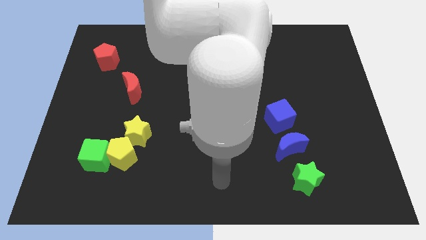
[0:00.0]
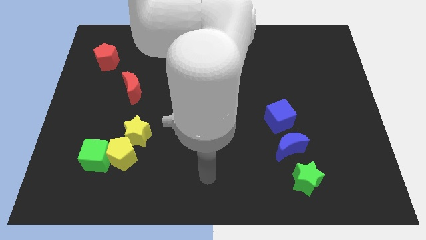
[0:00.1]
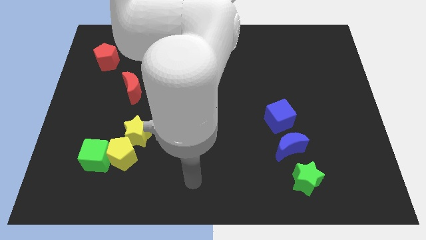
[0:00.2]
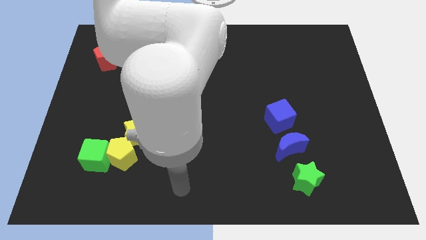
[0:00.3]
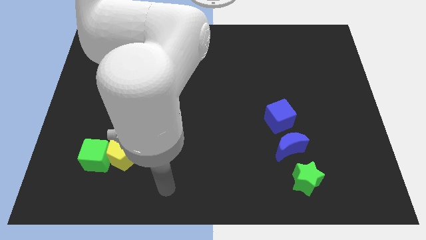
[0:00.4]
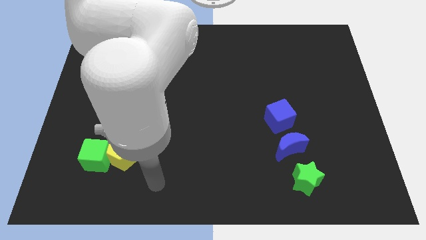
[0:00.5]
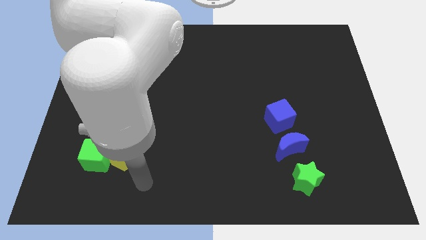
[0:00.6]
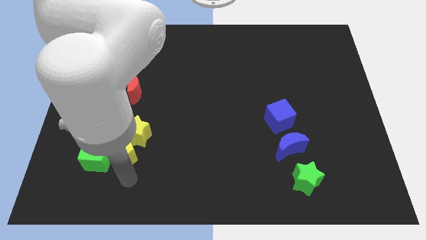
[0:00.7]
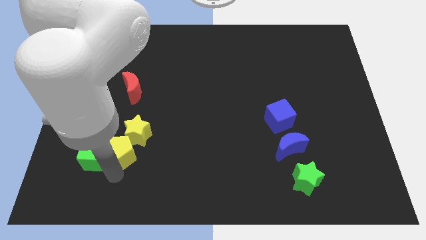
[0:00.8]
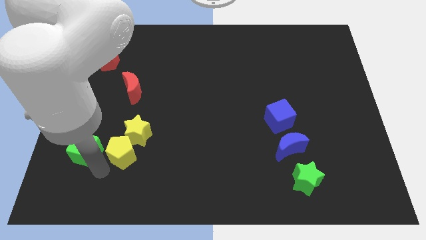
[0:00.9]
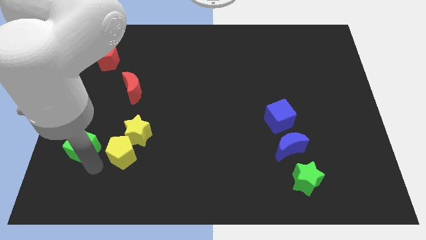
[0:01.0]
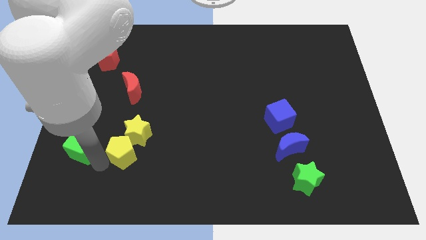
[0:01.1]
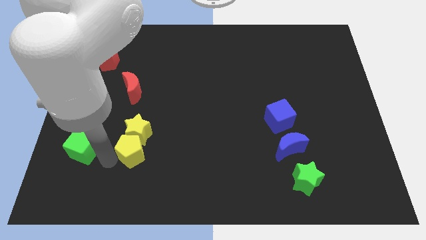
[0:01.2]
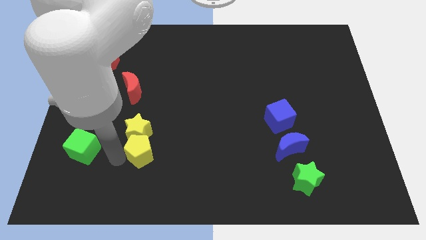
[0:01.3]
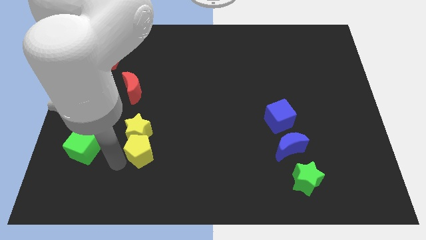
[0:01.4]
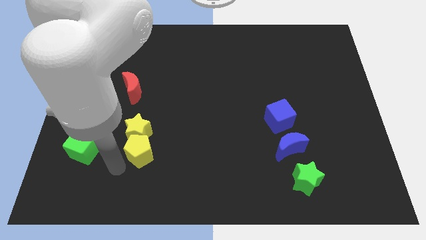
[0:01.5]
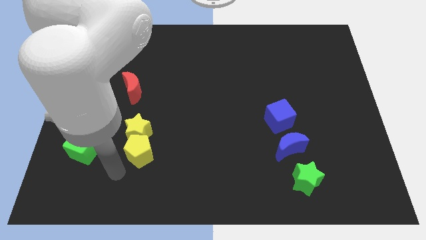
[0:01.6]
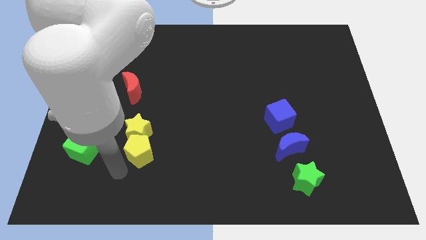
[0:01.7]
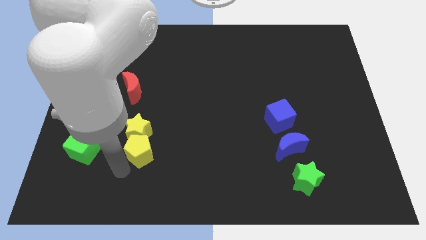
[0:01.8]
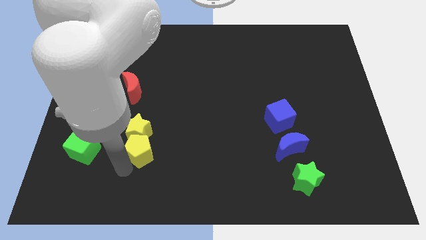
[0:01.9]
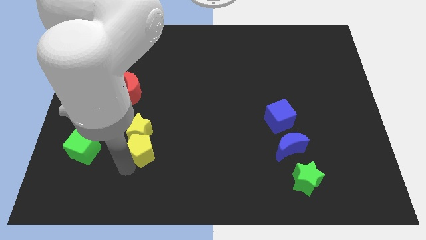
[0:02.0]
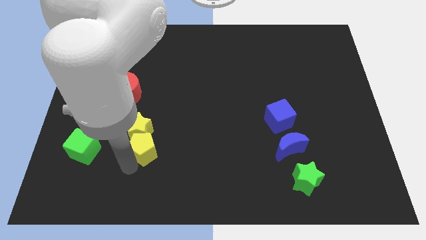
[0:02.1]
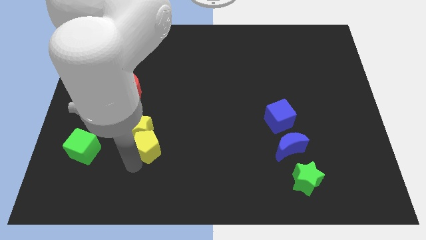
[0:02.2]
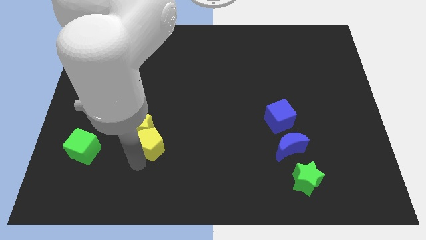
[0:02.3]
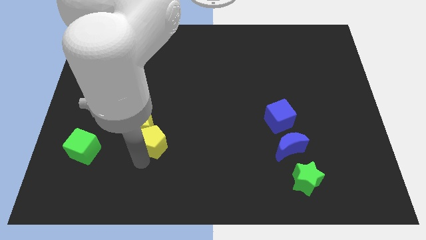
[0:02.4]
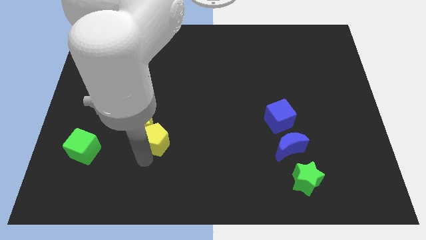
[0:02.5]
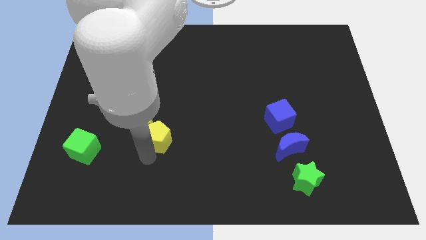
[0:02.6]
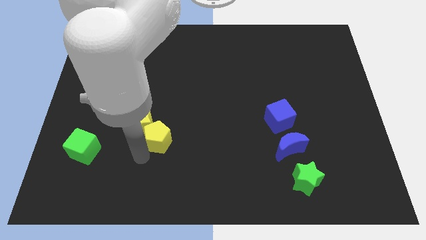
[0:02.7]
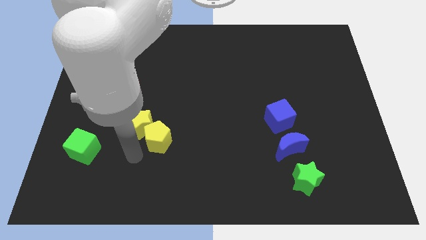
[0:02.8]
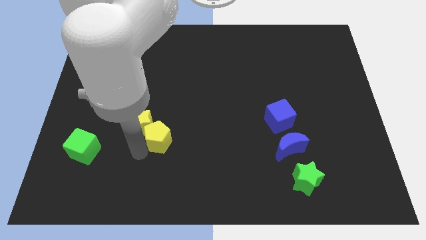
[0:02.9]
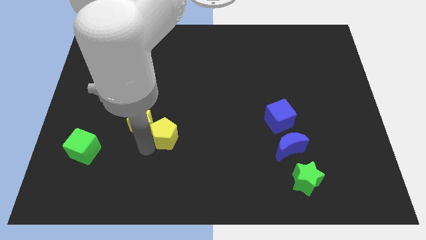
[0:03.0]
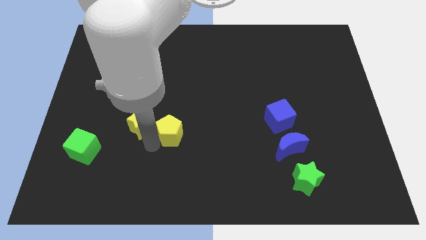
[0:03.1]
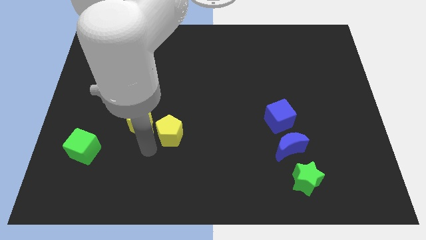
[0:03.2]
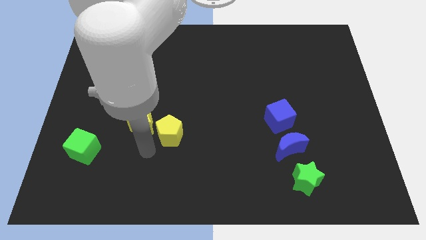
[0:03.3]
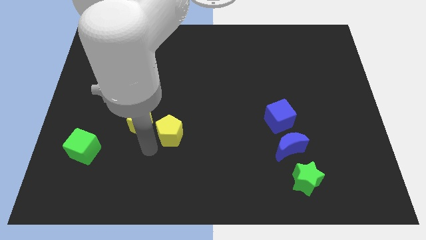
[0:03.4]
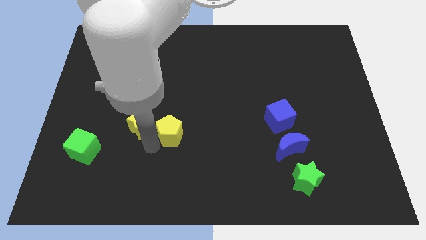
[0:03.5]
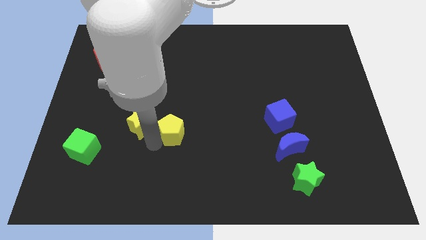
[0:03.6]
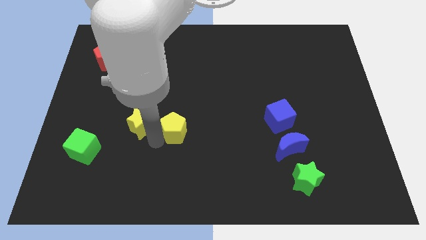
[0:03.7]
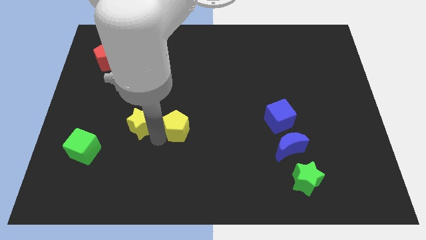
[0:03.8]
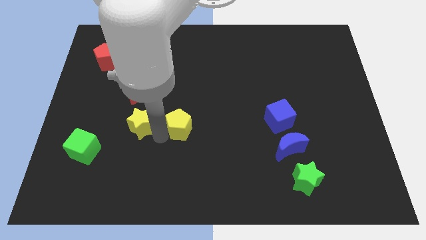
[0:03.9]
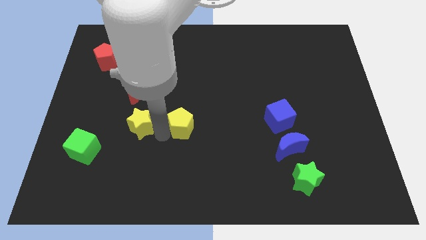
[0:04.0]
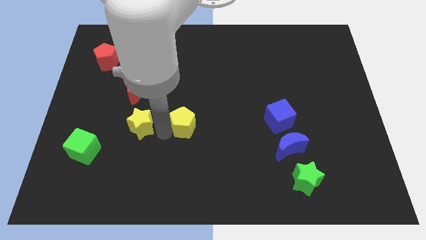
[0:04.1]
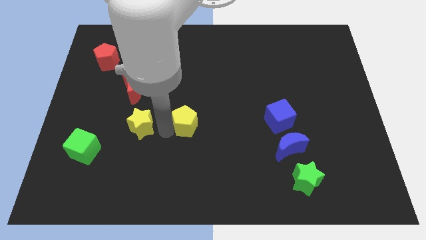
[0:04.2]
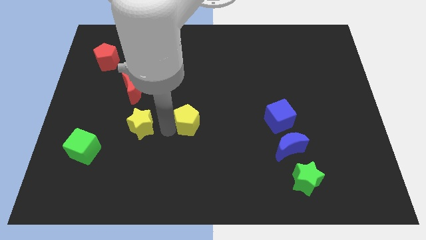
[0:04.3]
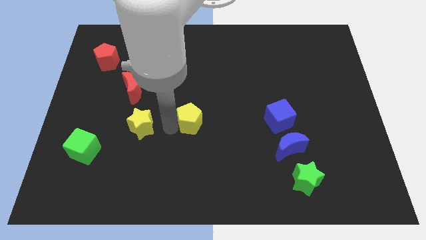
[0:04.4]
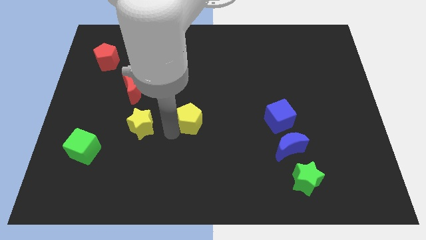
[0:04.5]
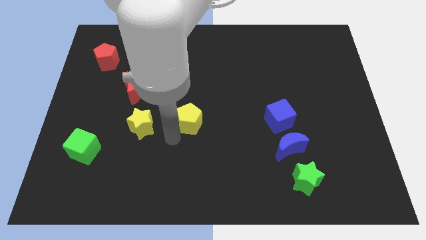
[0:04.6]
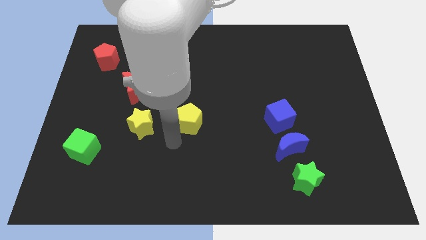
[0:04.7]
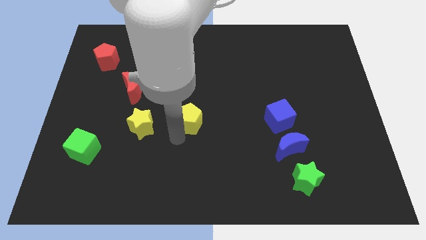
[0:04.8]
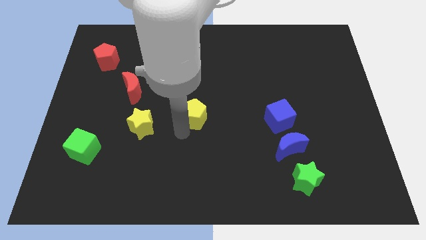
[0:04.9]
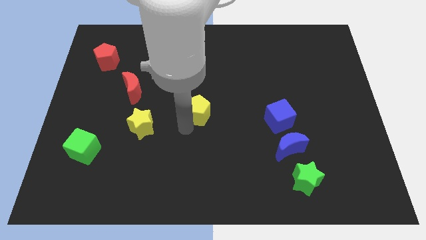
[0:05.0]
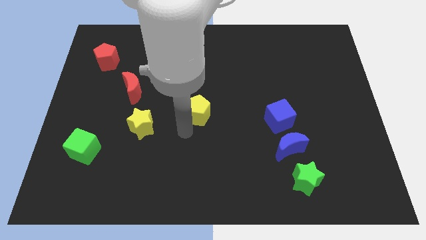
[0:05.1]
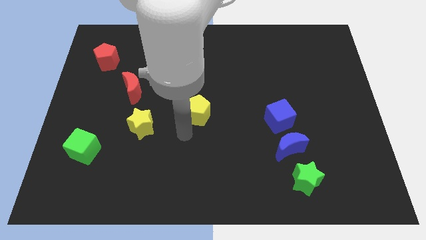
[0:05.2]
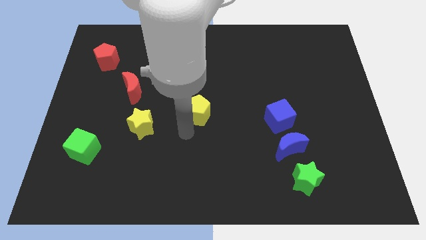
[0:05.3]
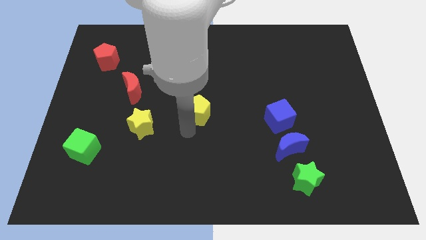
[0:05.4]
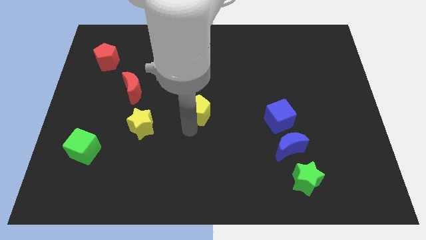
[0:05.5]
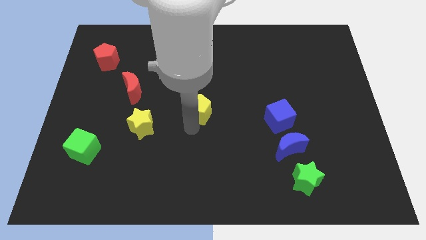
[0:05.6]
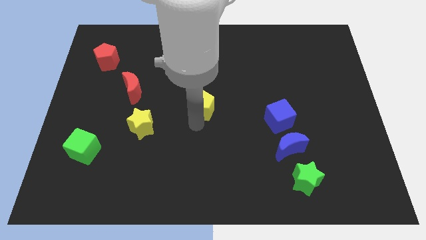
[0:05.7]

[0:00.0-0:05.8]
slide the yellow pentagon upwards and right diagonally

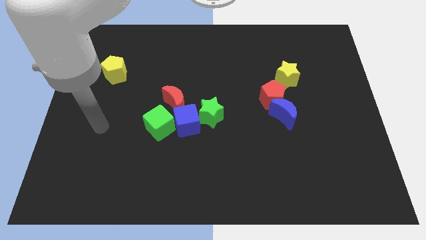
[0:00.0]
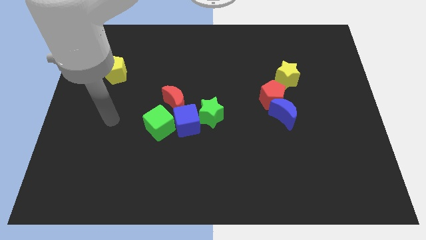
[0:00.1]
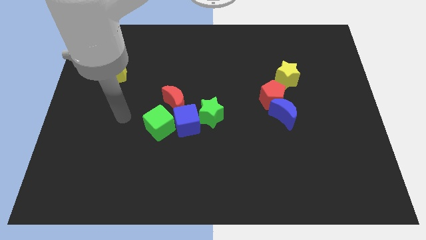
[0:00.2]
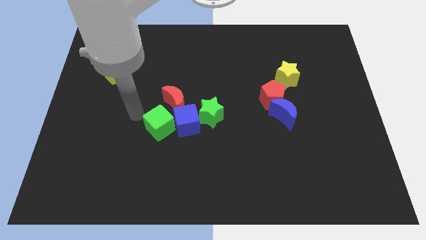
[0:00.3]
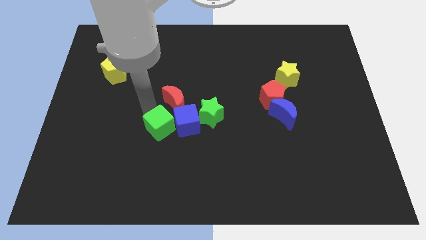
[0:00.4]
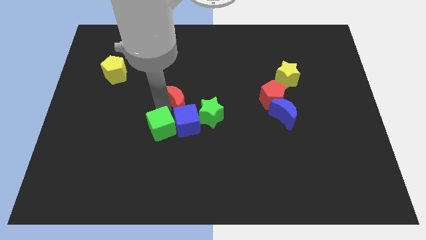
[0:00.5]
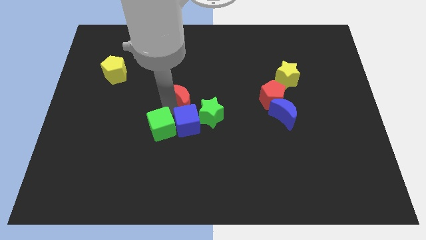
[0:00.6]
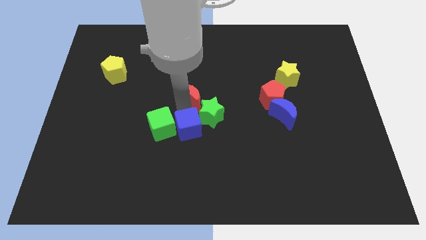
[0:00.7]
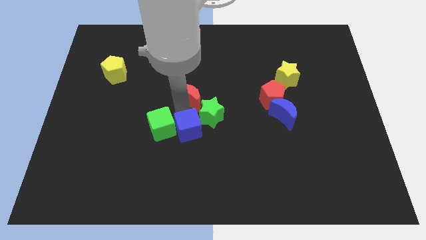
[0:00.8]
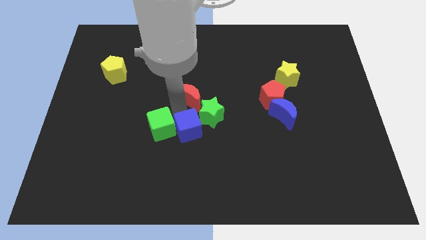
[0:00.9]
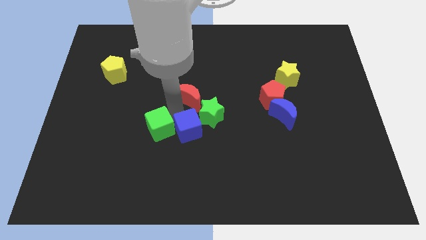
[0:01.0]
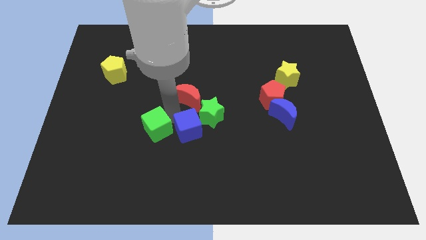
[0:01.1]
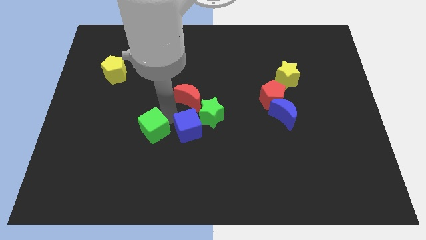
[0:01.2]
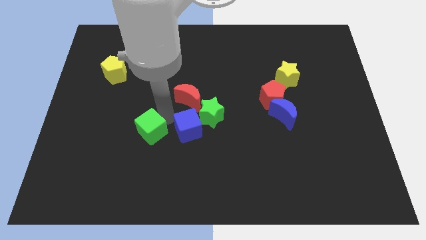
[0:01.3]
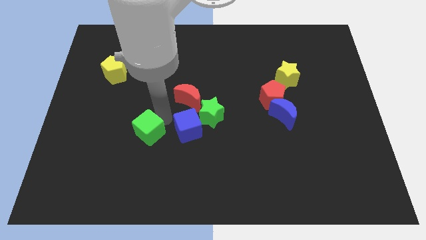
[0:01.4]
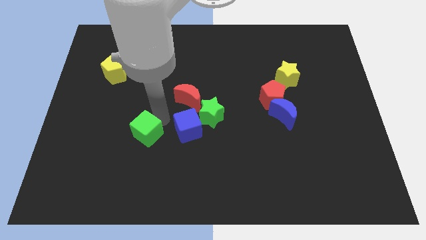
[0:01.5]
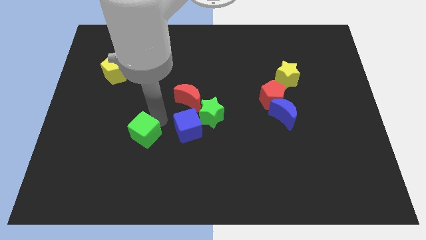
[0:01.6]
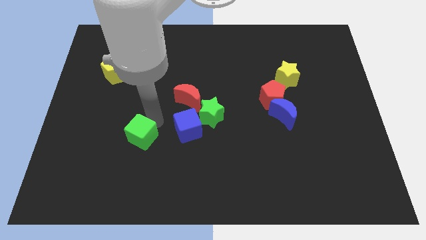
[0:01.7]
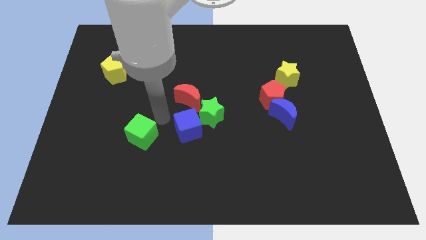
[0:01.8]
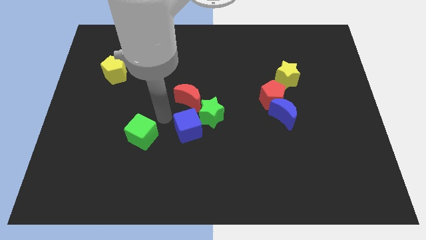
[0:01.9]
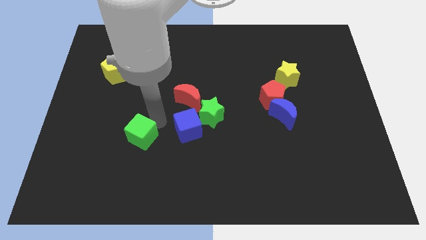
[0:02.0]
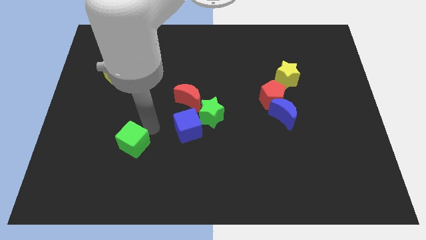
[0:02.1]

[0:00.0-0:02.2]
slightly slide the green cube down and to the left diagonally
